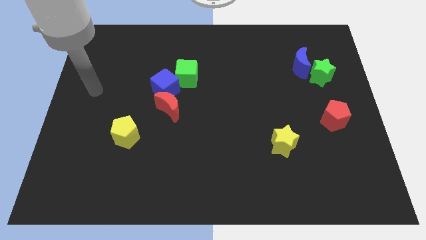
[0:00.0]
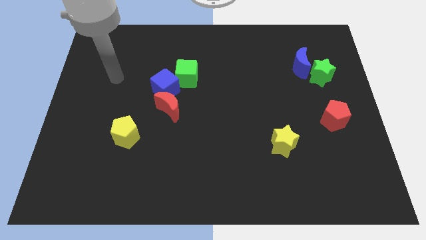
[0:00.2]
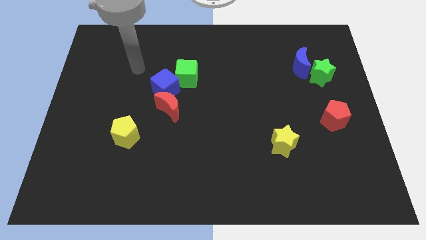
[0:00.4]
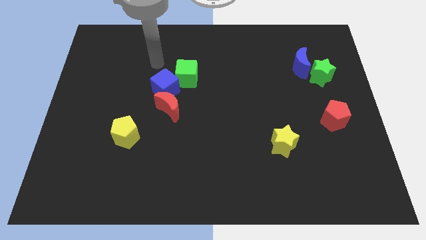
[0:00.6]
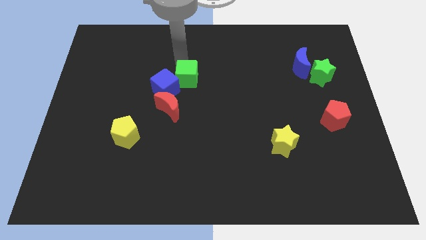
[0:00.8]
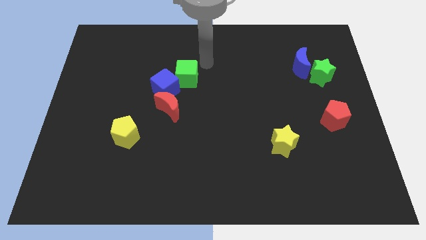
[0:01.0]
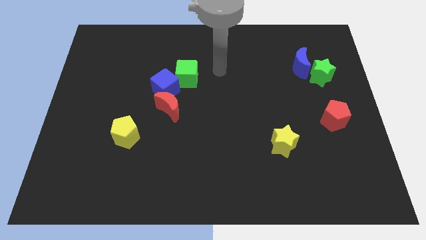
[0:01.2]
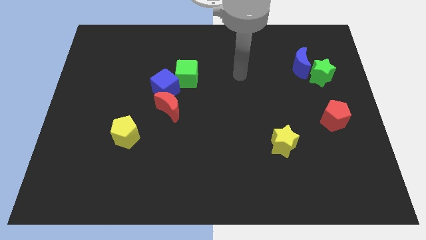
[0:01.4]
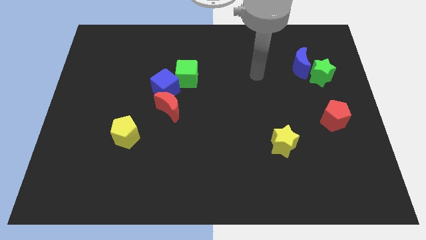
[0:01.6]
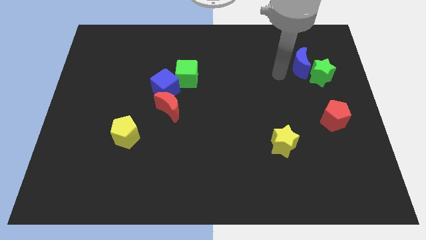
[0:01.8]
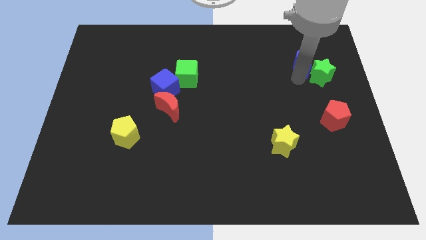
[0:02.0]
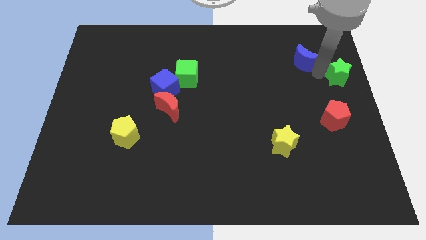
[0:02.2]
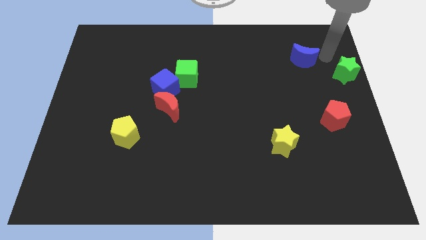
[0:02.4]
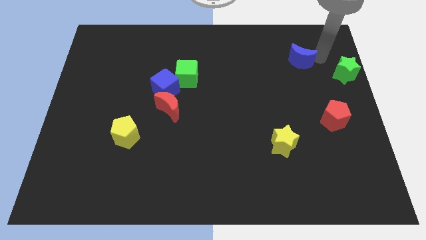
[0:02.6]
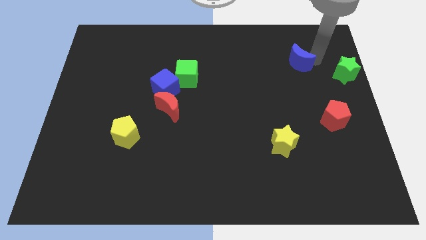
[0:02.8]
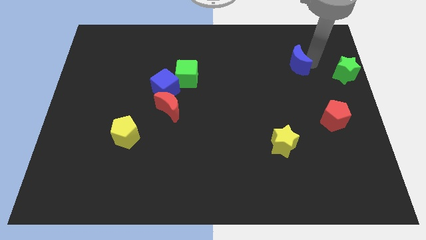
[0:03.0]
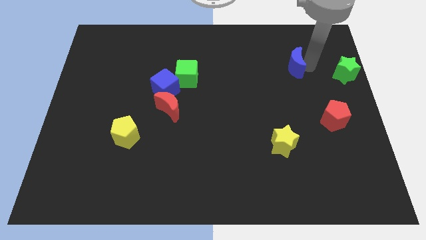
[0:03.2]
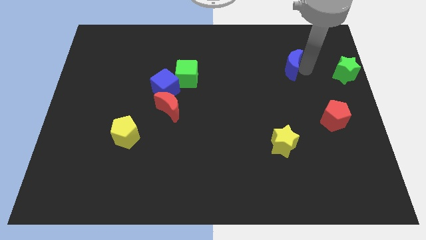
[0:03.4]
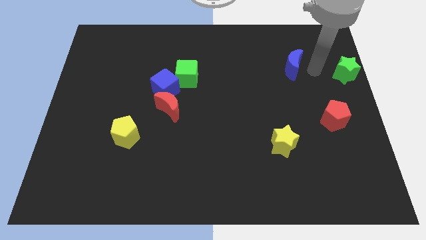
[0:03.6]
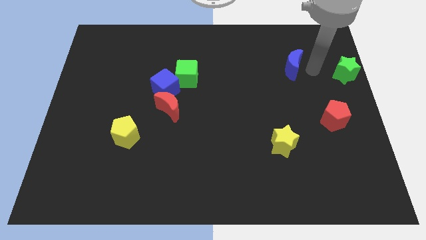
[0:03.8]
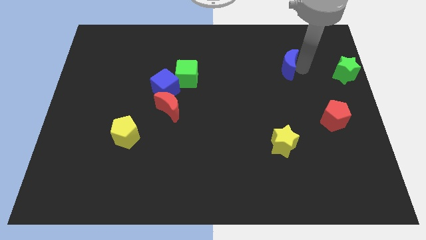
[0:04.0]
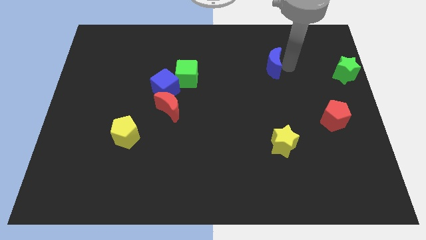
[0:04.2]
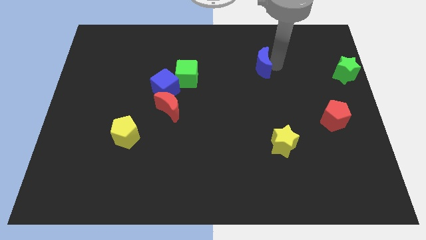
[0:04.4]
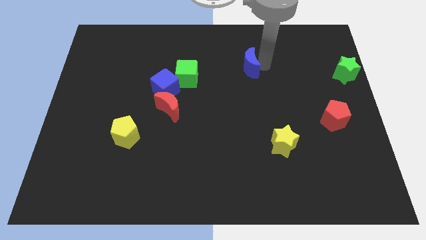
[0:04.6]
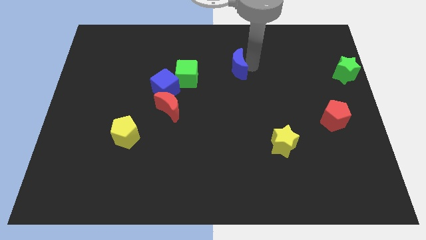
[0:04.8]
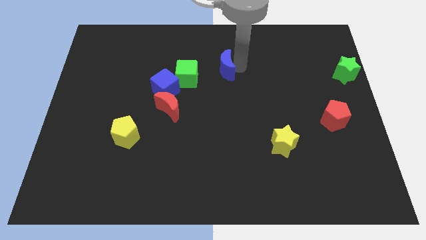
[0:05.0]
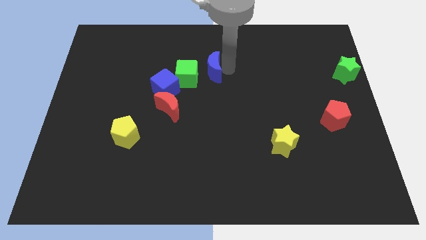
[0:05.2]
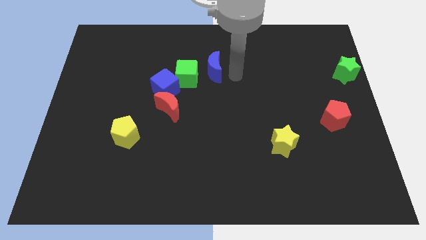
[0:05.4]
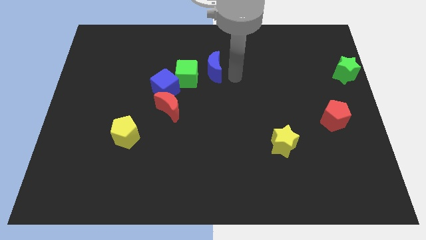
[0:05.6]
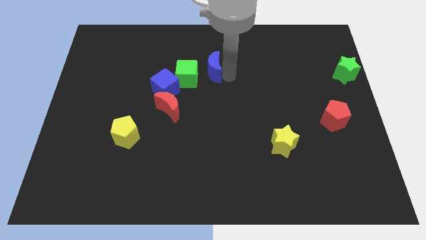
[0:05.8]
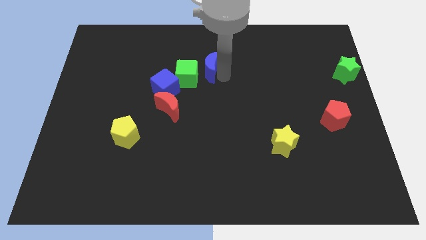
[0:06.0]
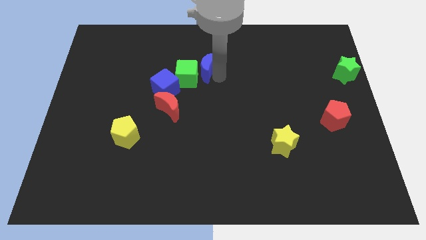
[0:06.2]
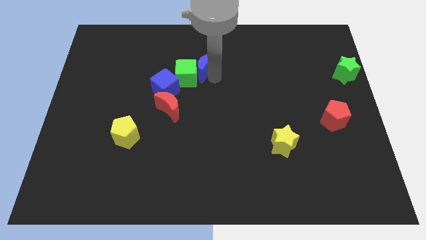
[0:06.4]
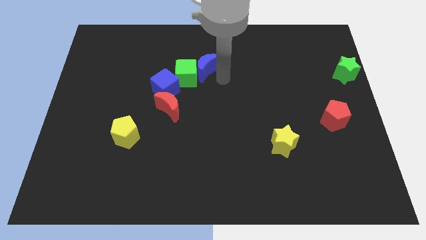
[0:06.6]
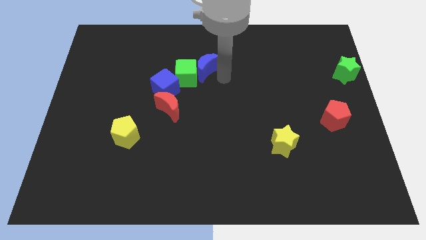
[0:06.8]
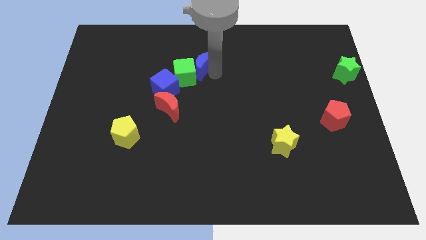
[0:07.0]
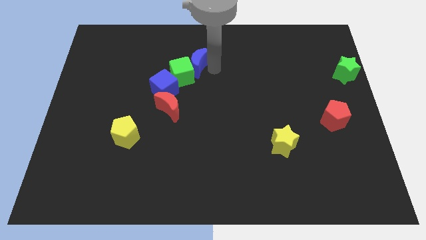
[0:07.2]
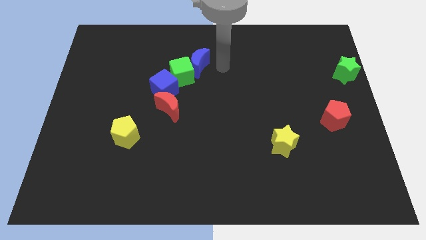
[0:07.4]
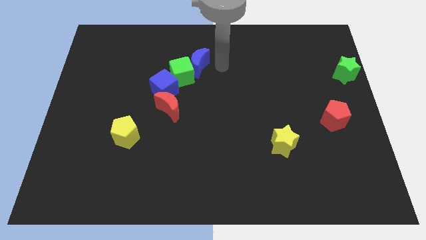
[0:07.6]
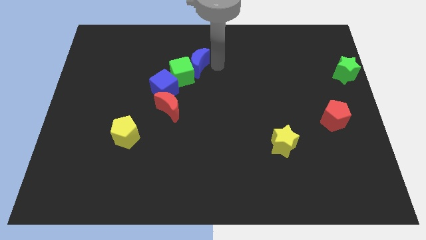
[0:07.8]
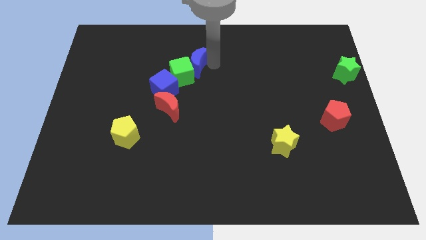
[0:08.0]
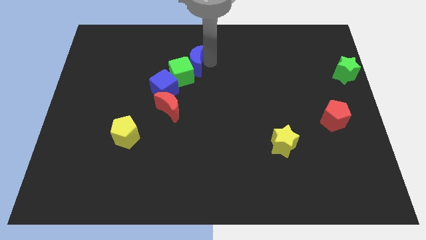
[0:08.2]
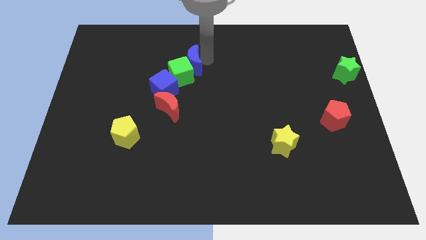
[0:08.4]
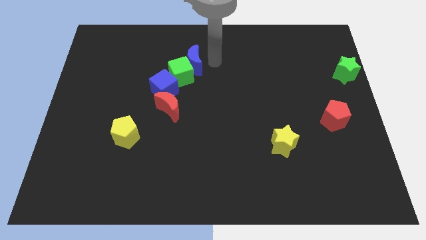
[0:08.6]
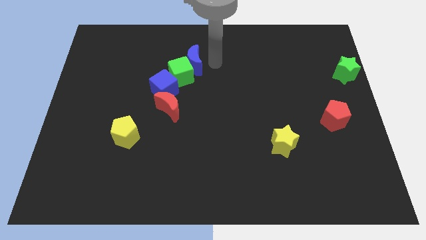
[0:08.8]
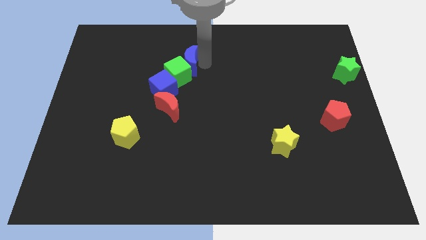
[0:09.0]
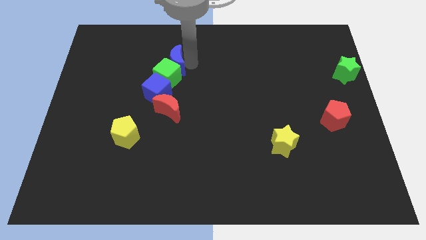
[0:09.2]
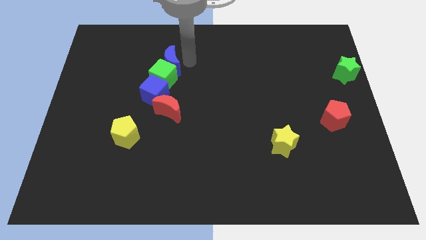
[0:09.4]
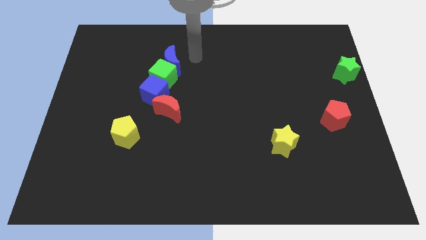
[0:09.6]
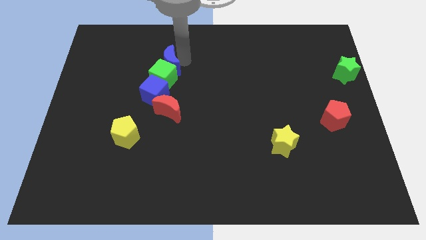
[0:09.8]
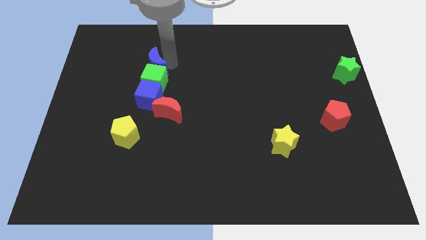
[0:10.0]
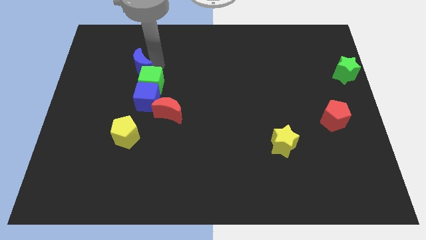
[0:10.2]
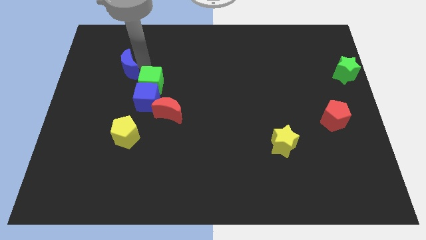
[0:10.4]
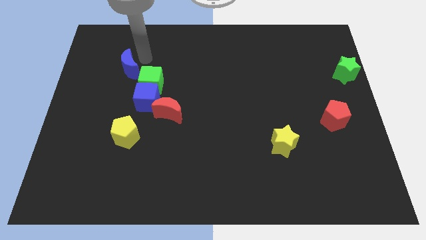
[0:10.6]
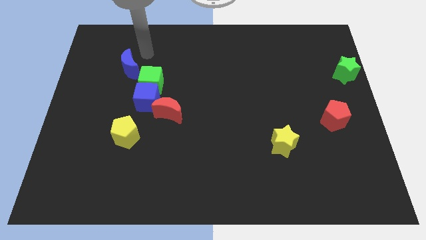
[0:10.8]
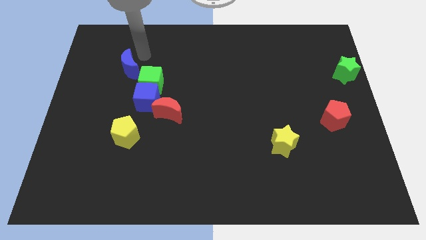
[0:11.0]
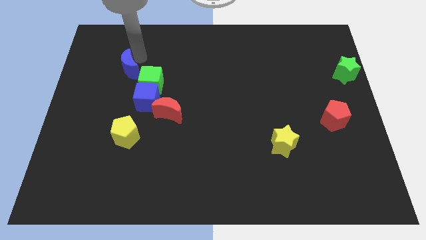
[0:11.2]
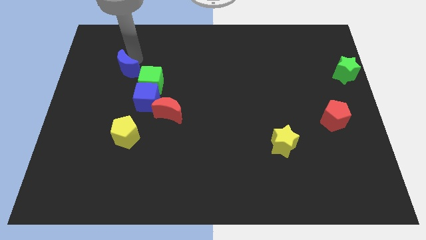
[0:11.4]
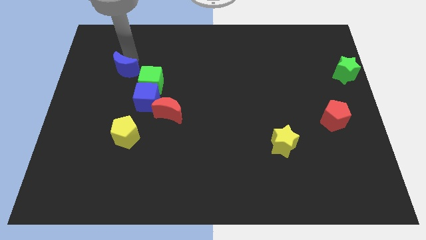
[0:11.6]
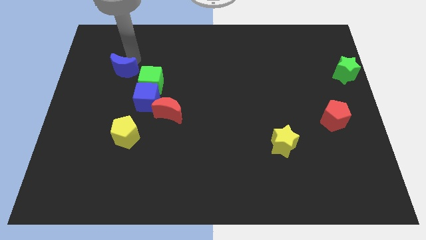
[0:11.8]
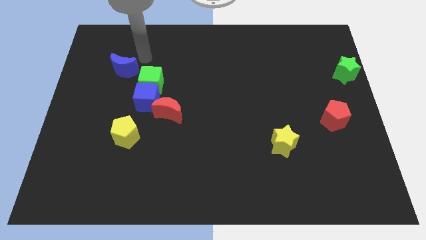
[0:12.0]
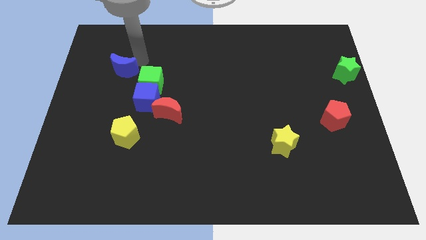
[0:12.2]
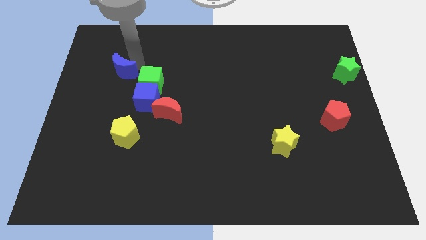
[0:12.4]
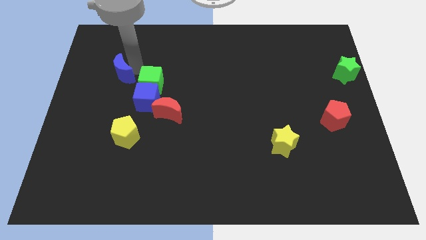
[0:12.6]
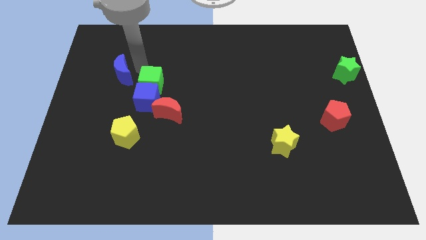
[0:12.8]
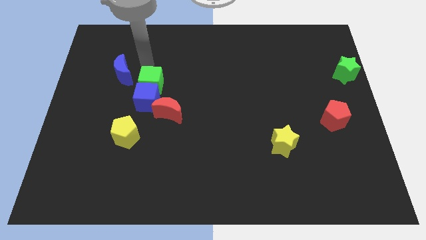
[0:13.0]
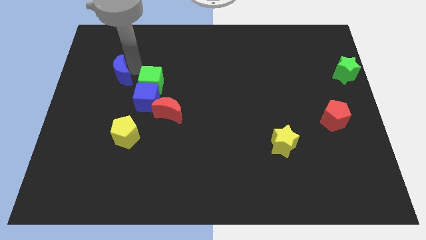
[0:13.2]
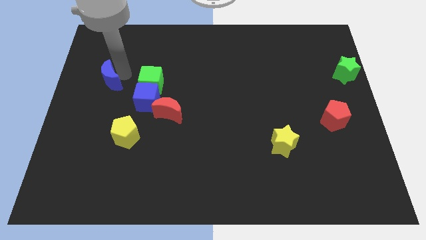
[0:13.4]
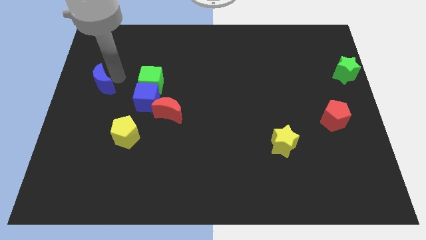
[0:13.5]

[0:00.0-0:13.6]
push the blue moon to the center left

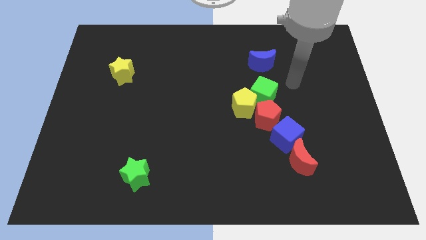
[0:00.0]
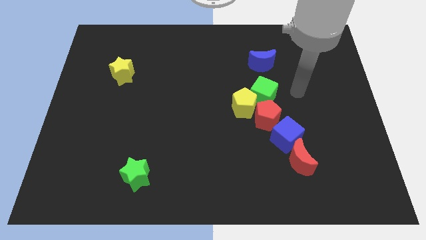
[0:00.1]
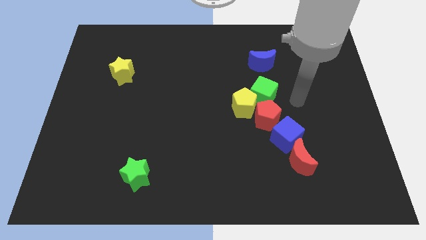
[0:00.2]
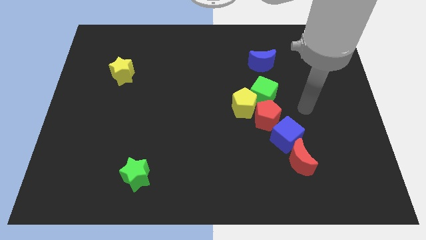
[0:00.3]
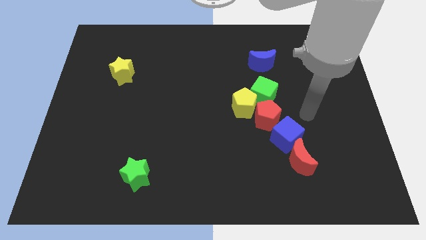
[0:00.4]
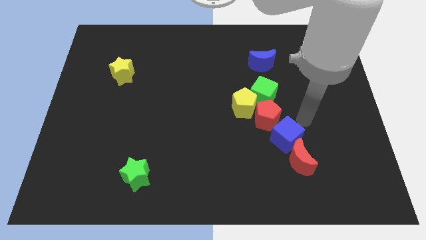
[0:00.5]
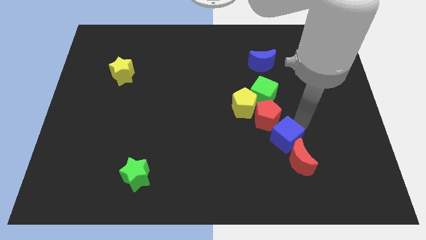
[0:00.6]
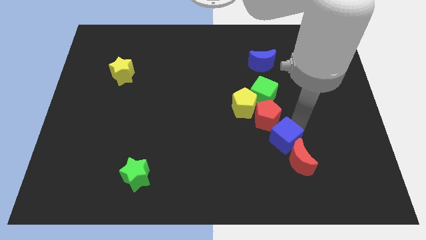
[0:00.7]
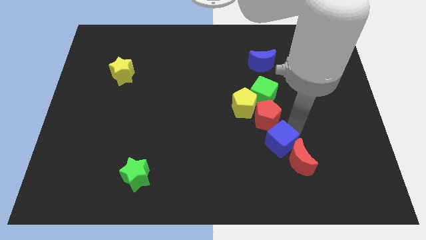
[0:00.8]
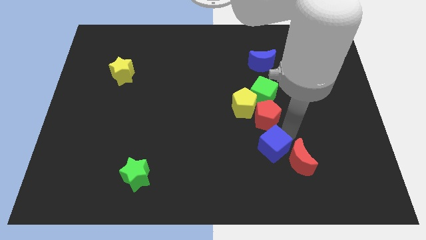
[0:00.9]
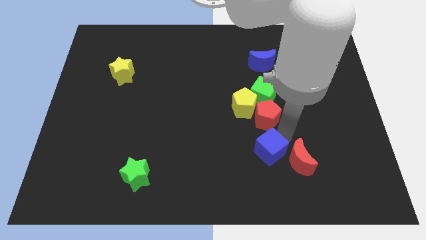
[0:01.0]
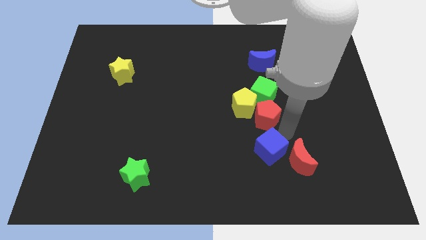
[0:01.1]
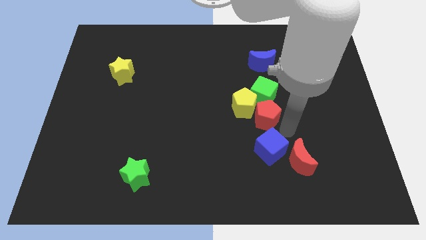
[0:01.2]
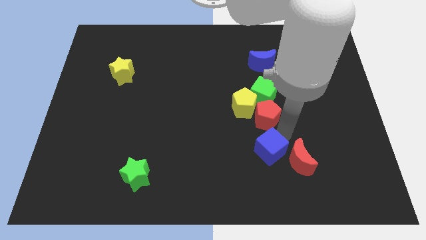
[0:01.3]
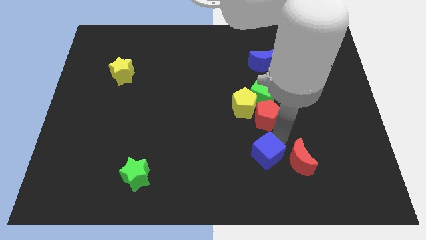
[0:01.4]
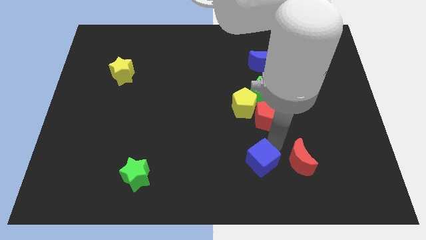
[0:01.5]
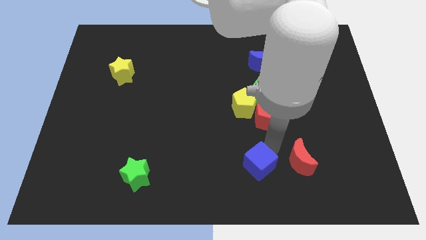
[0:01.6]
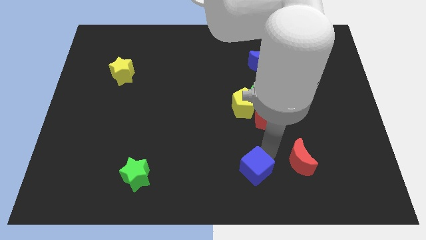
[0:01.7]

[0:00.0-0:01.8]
put the blue cube to the bottom
